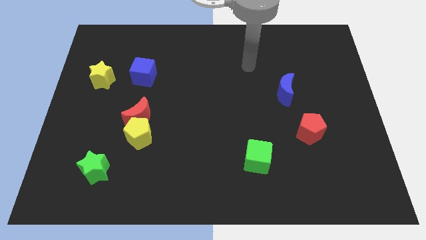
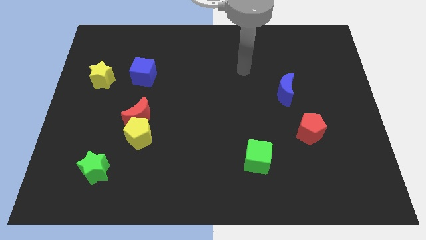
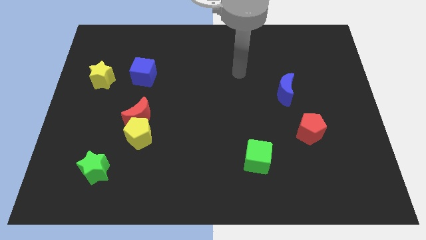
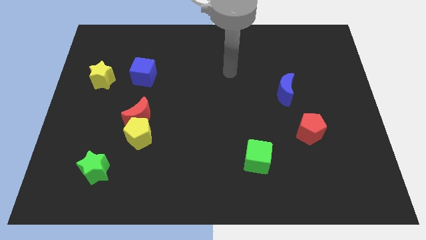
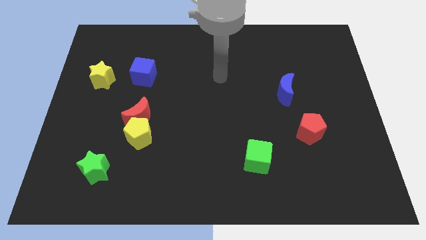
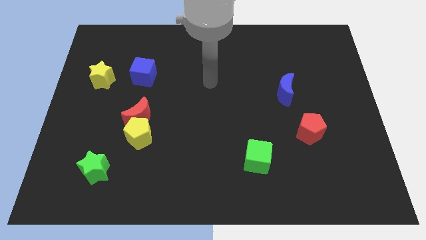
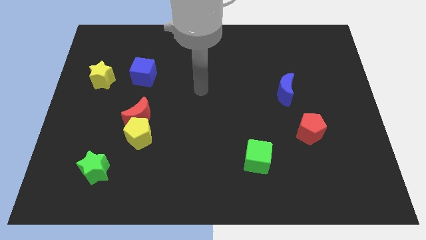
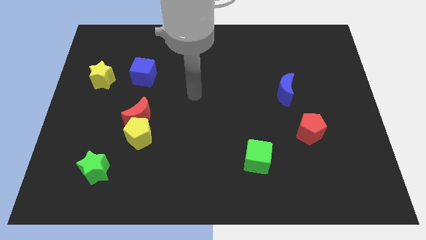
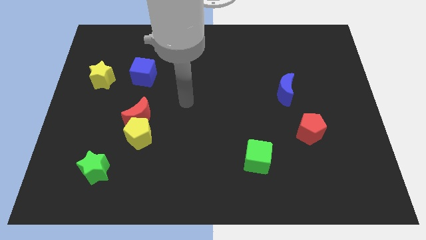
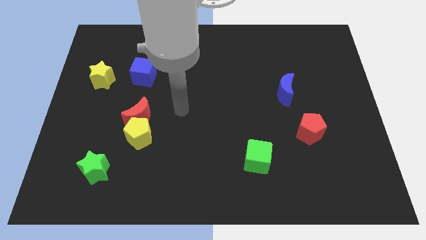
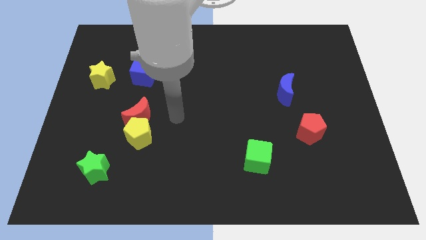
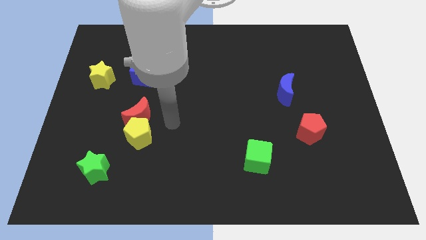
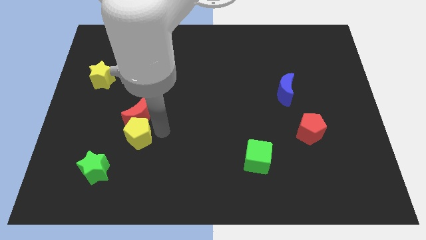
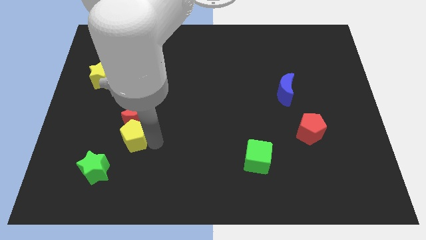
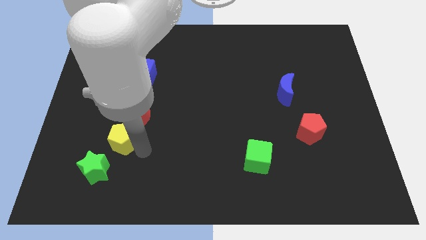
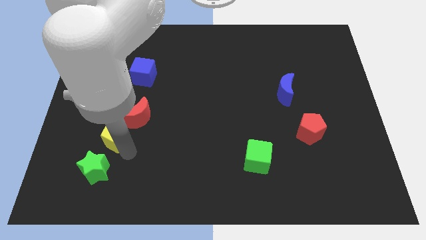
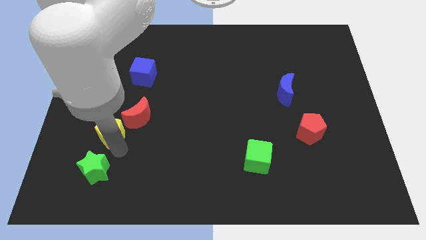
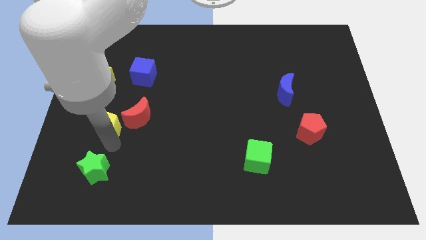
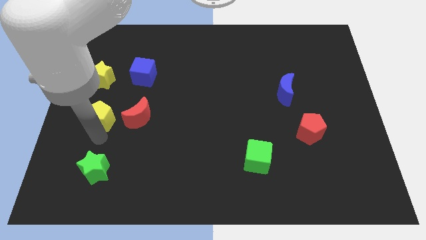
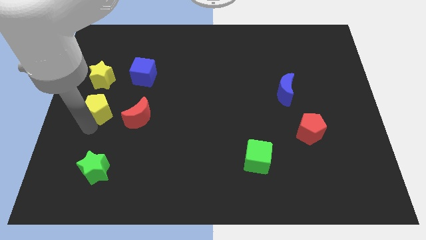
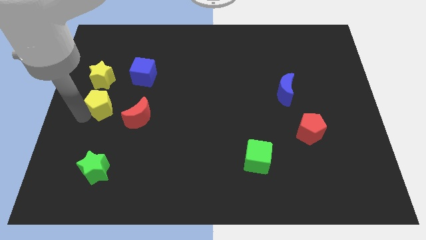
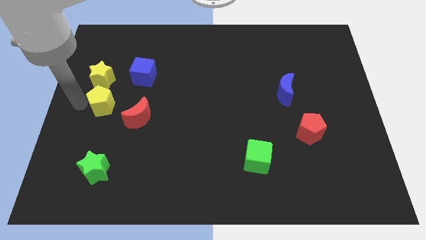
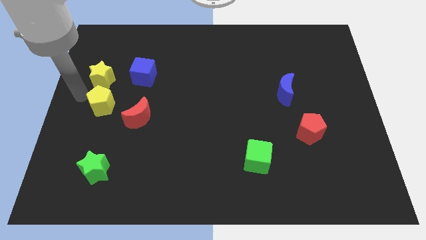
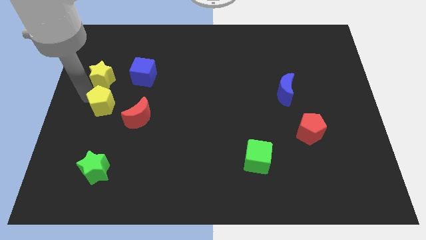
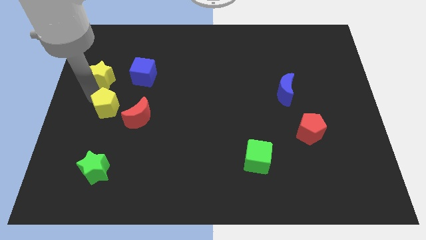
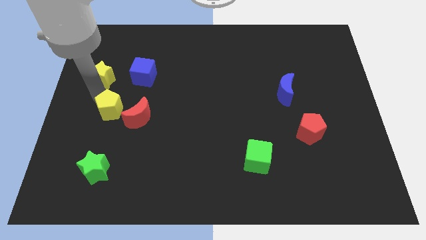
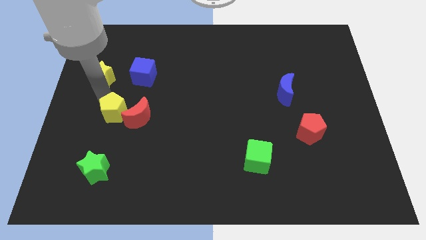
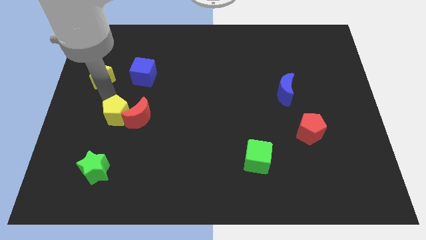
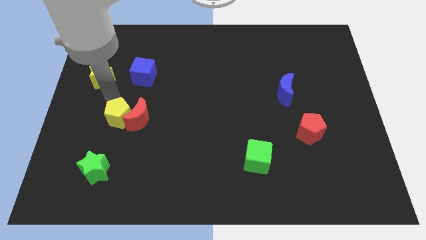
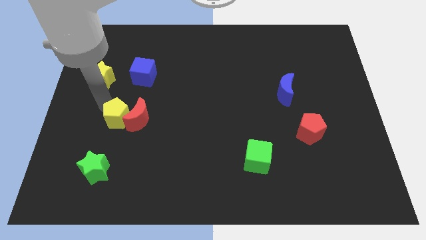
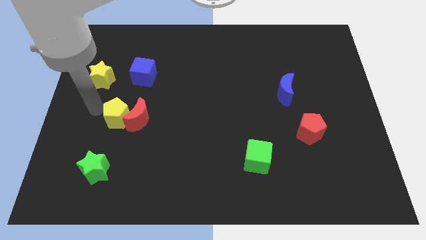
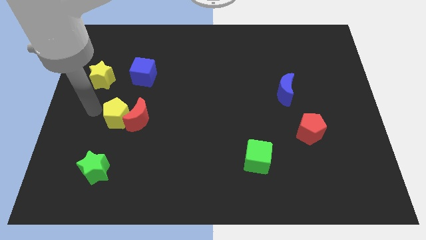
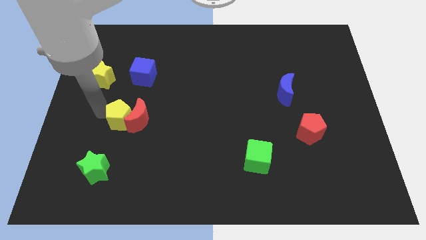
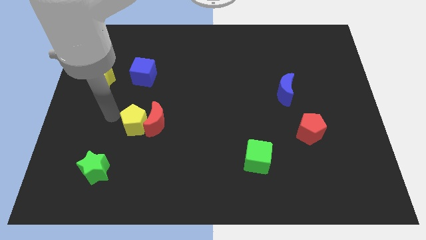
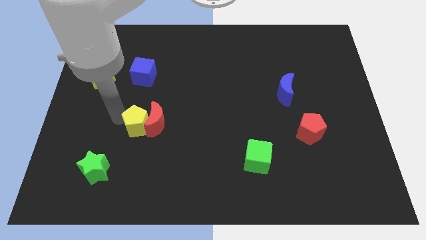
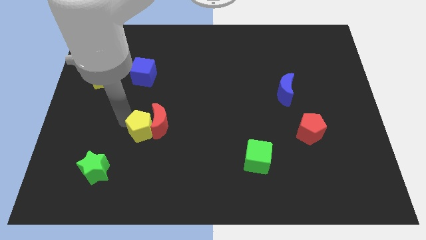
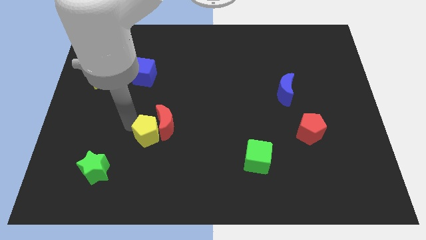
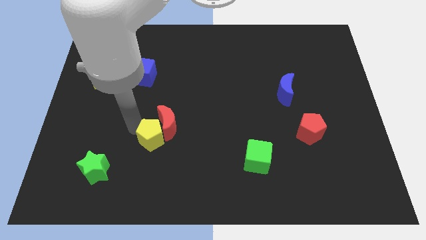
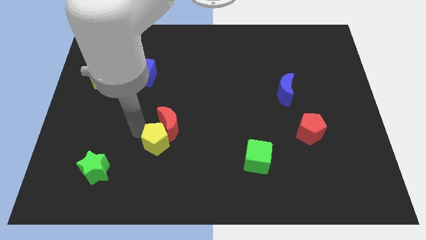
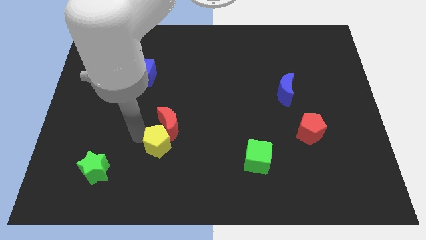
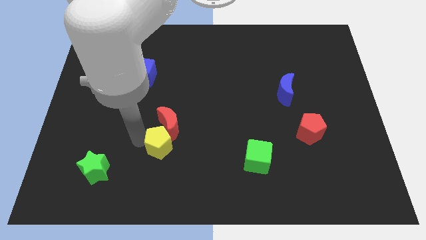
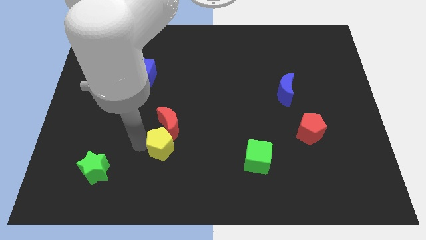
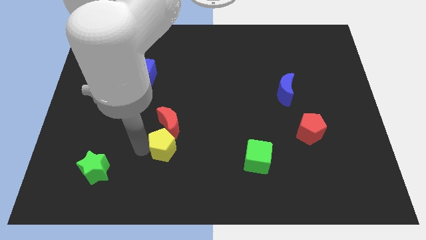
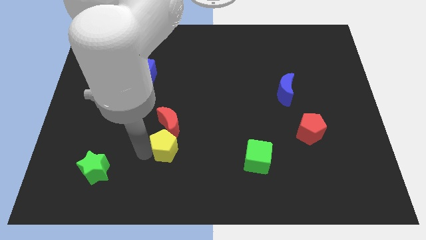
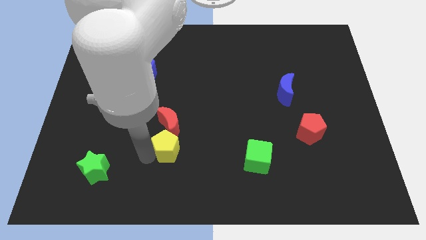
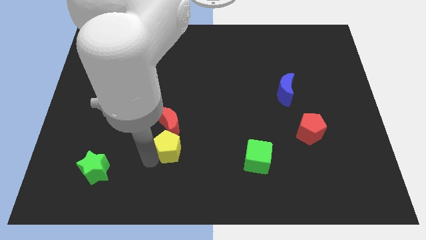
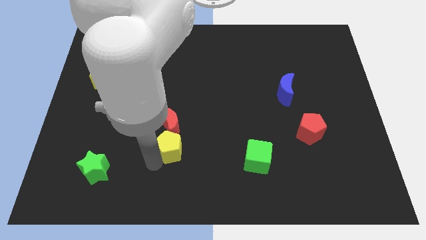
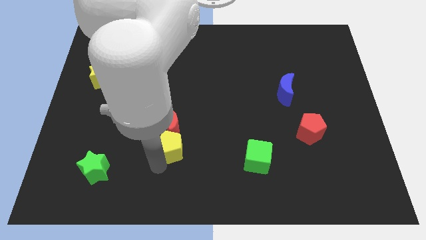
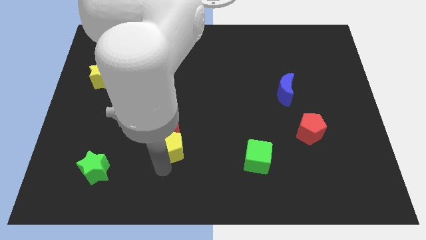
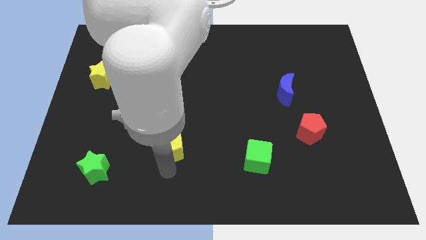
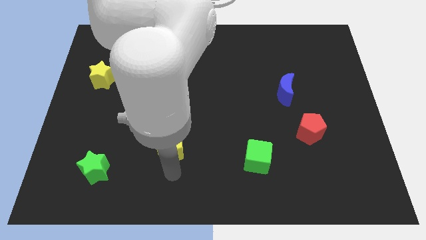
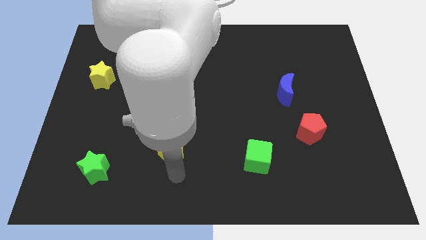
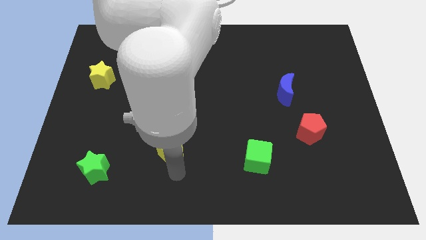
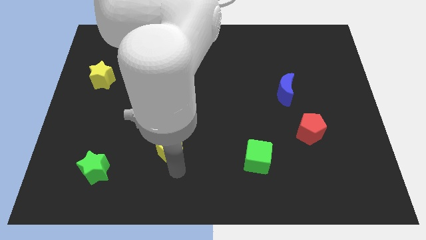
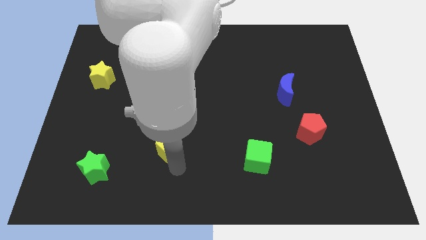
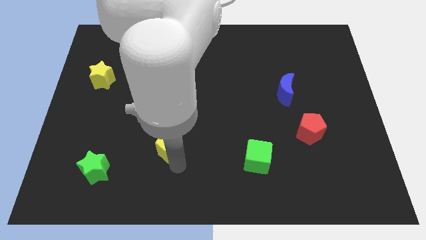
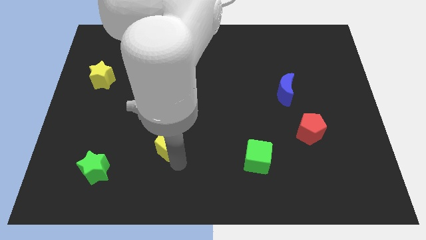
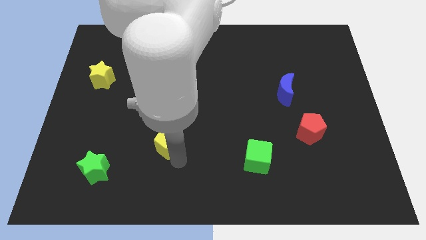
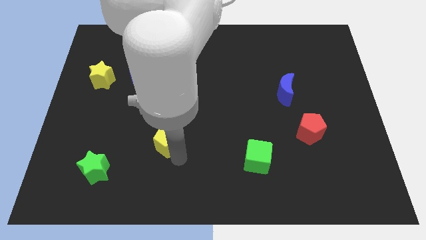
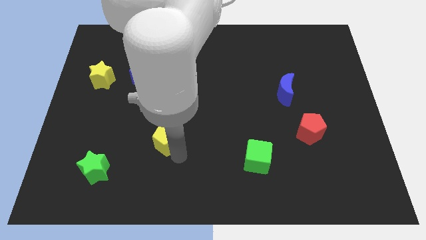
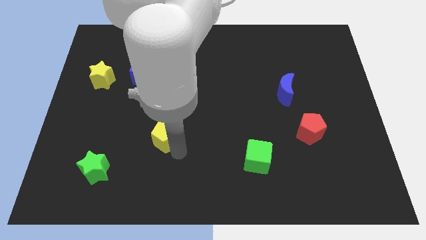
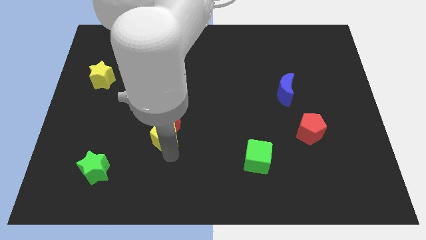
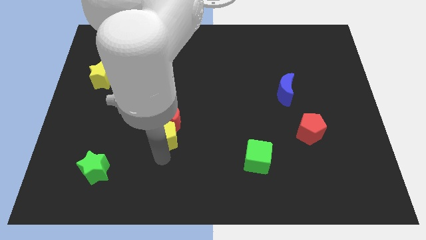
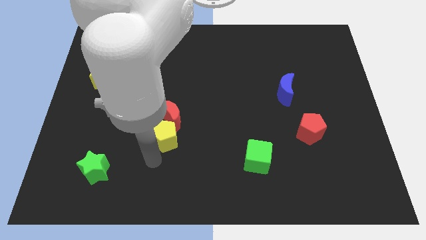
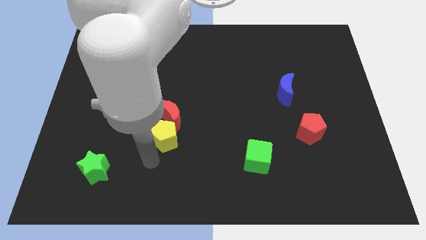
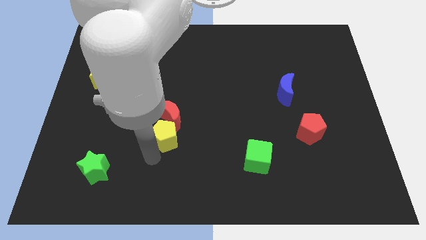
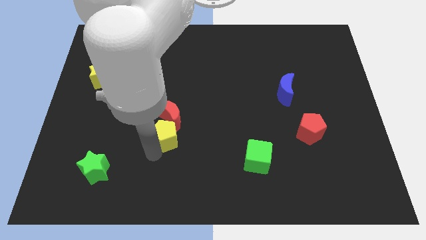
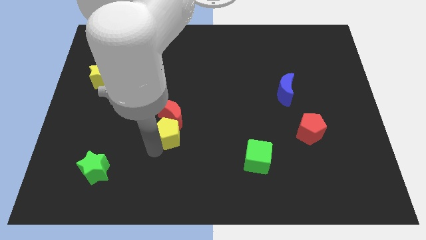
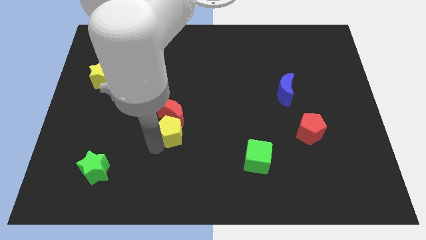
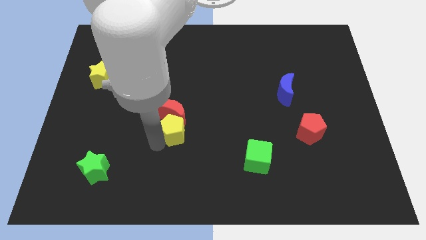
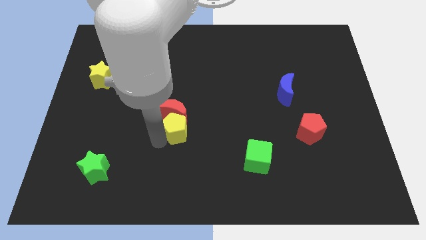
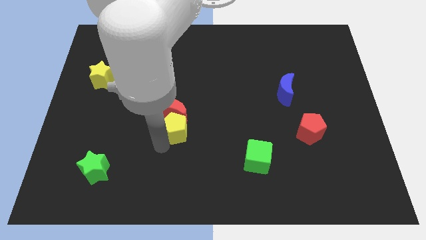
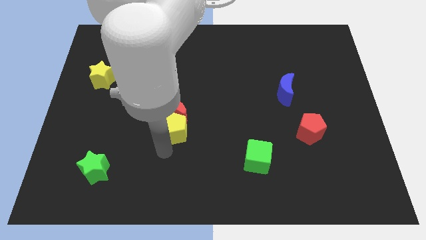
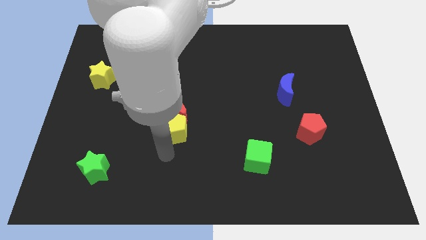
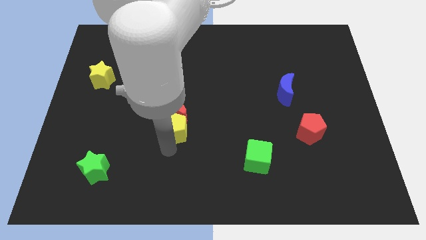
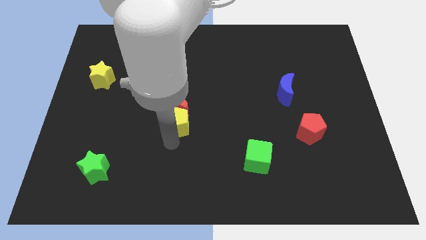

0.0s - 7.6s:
slightly slide the yellow pentagon upwards and then right

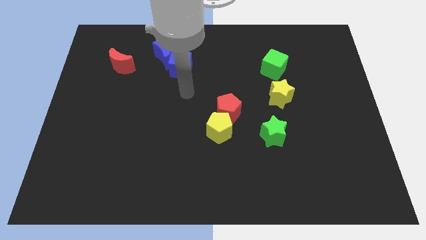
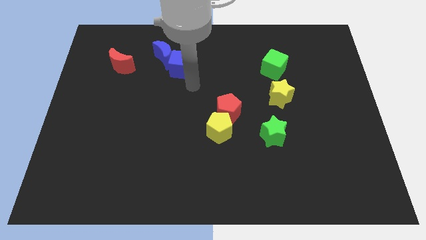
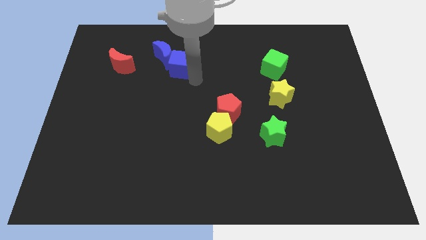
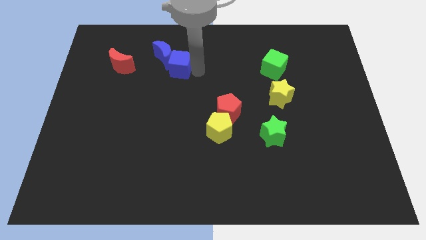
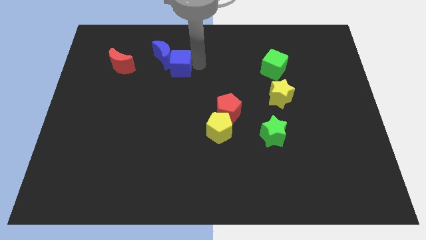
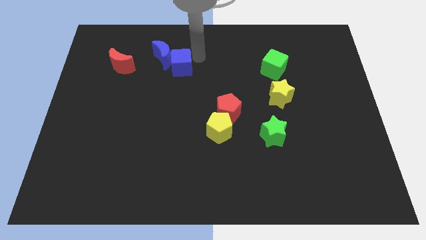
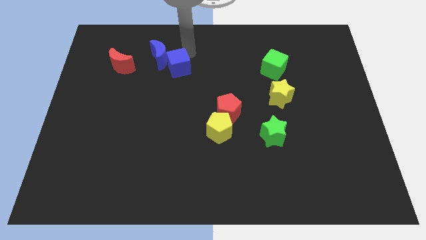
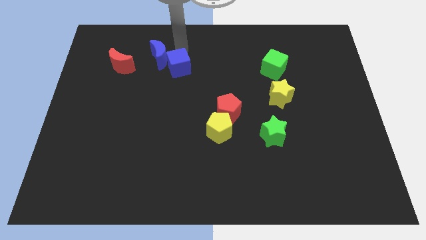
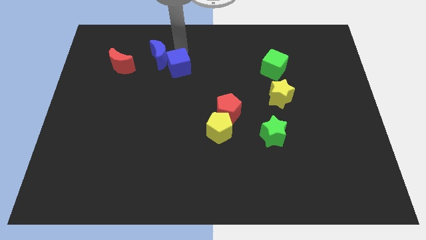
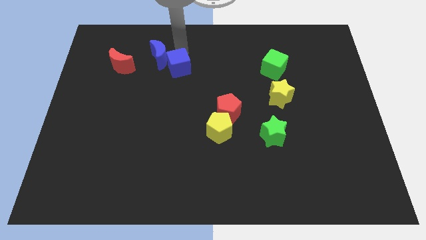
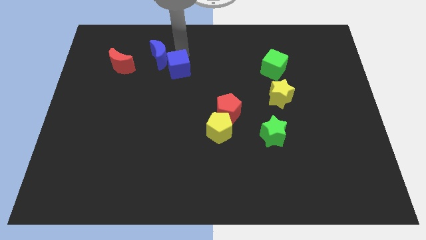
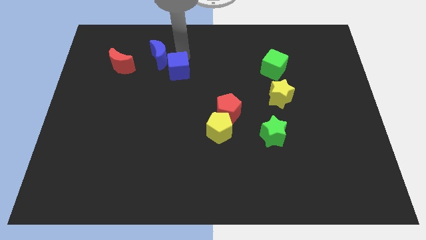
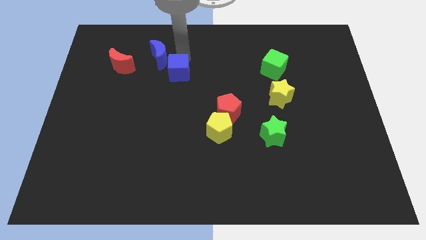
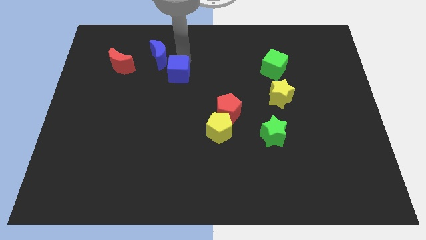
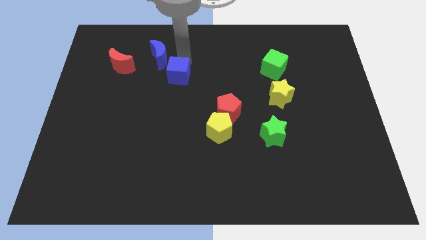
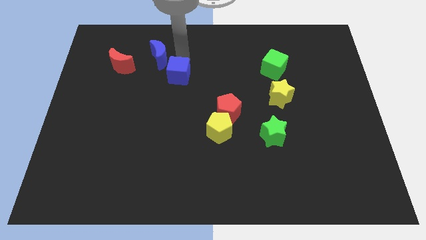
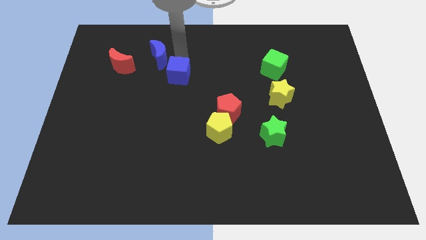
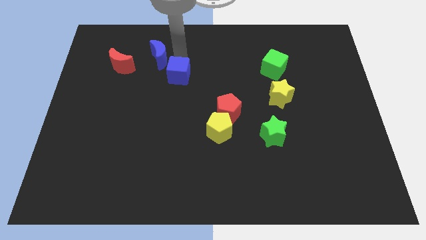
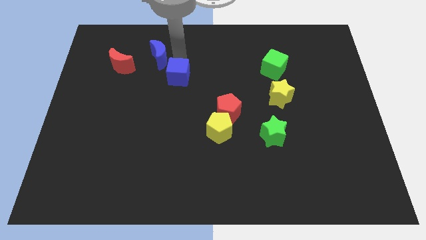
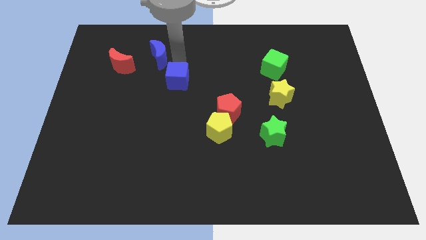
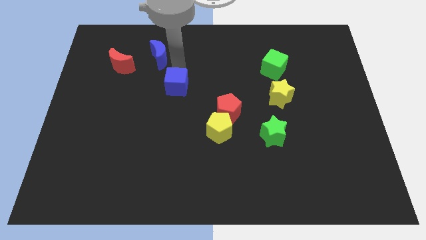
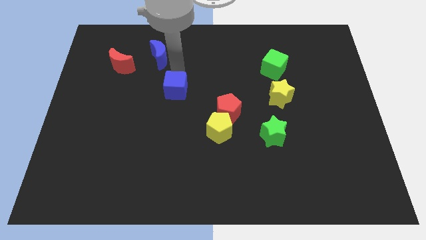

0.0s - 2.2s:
push the blue cube somewhat downwards
